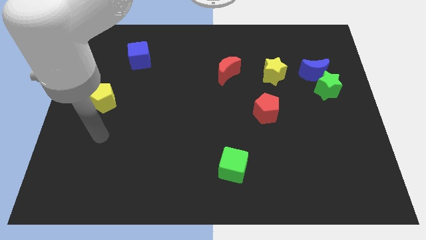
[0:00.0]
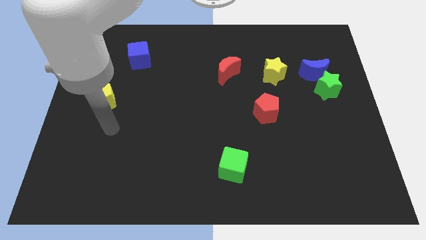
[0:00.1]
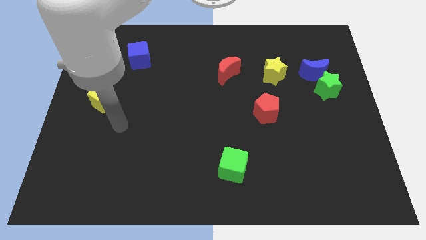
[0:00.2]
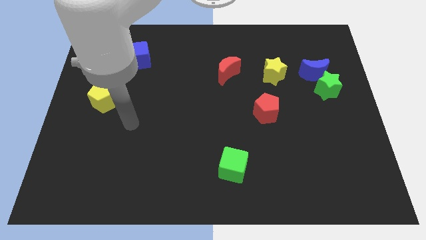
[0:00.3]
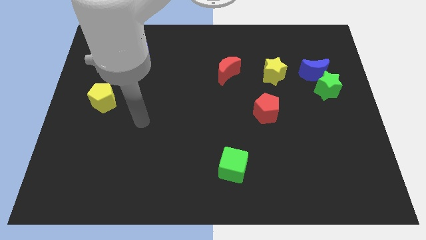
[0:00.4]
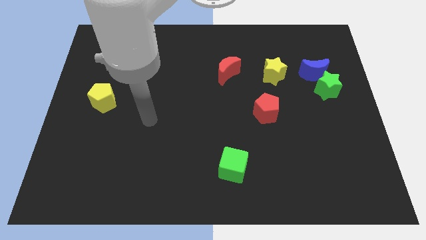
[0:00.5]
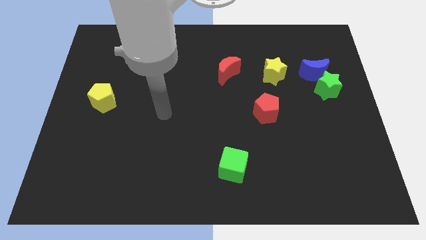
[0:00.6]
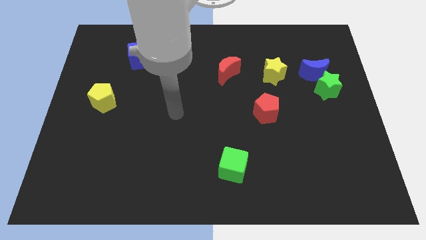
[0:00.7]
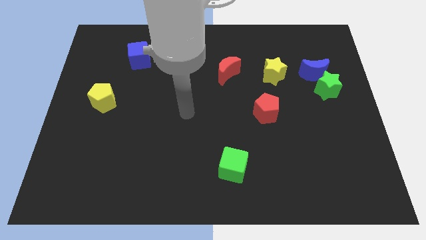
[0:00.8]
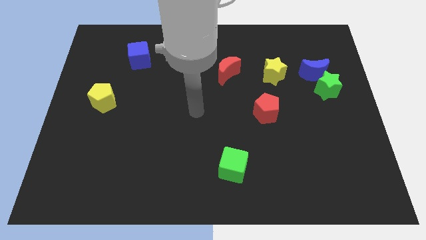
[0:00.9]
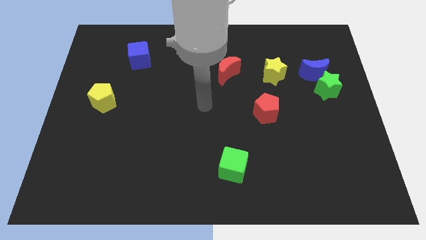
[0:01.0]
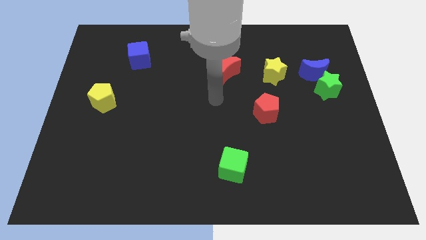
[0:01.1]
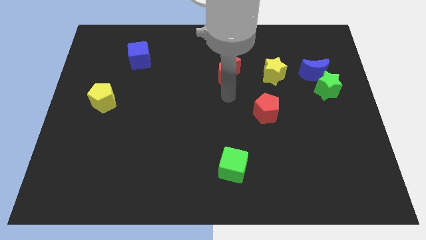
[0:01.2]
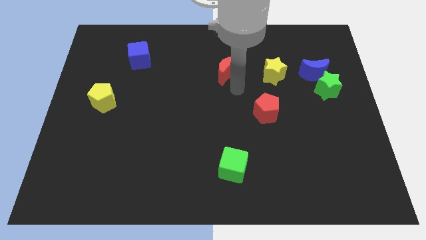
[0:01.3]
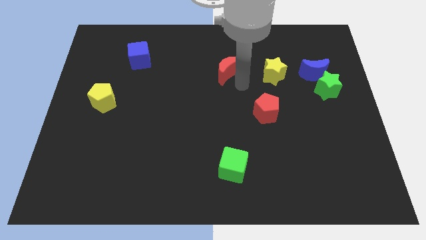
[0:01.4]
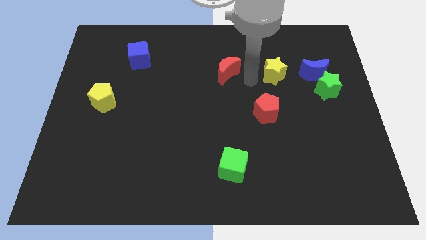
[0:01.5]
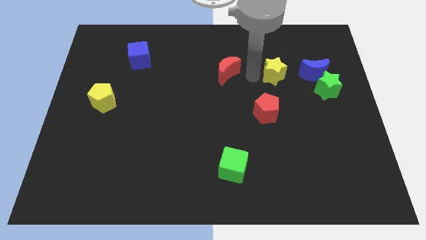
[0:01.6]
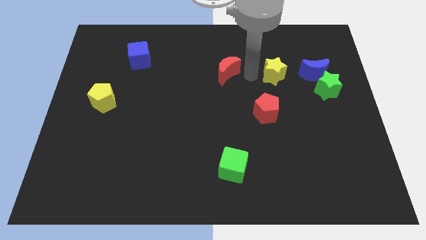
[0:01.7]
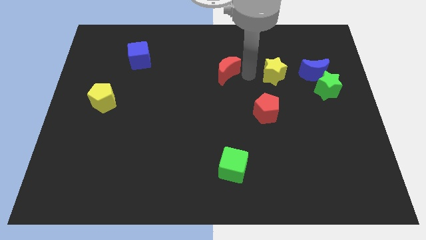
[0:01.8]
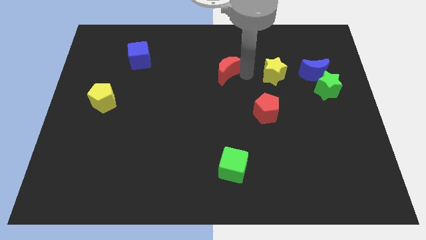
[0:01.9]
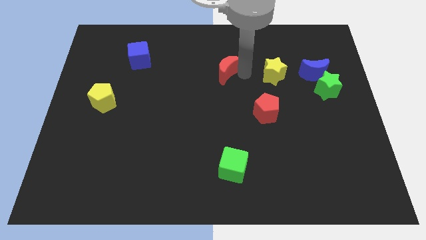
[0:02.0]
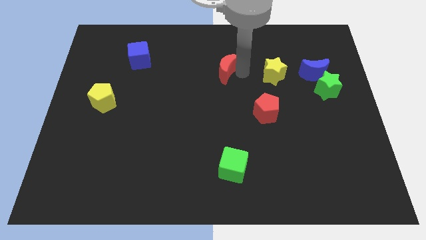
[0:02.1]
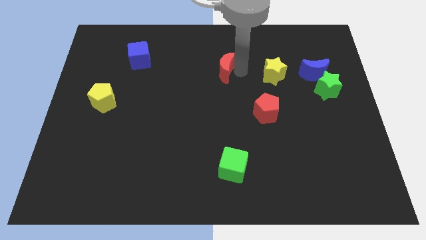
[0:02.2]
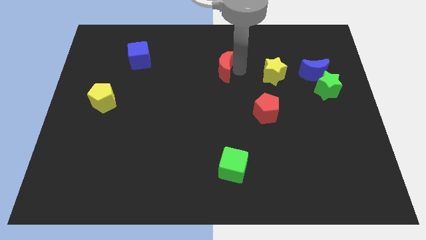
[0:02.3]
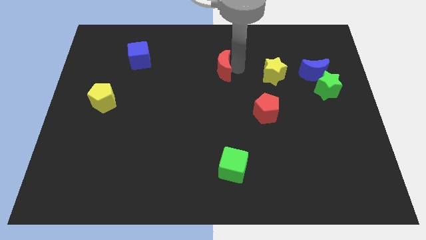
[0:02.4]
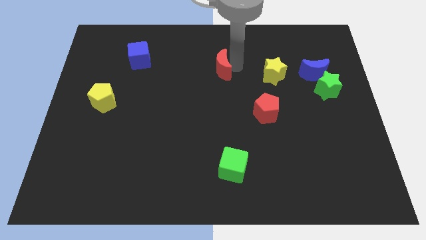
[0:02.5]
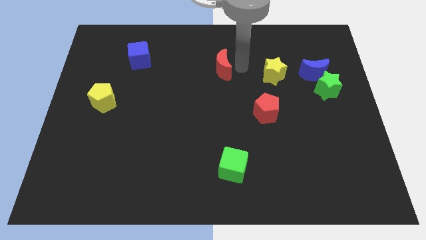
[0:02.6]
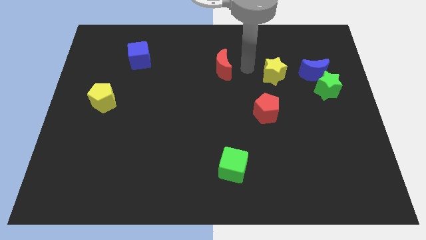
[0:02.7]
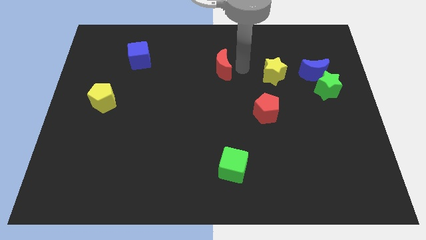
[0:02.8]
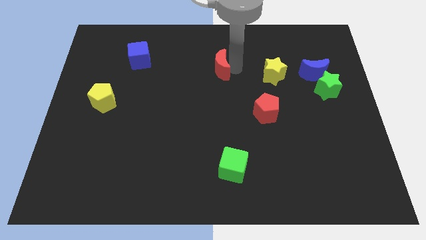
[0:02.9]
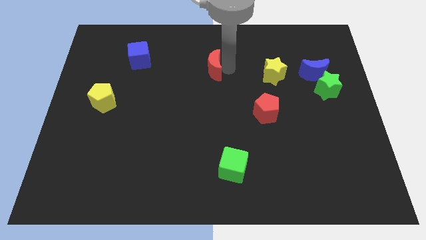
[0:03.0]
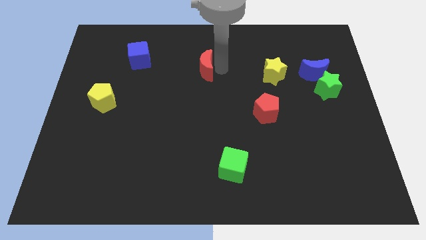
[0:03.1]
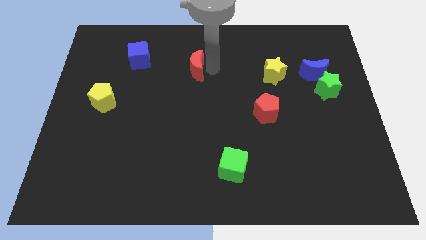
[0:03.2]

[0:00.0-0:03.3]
slide the red moon left a little bit

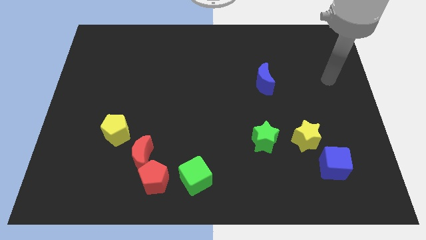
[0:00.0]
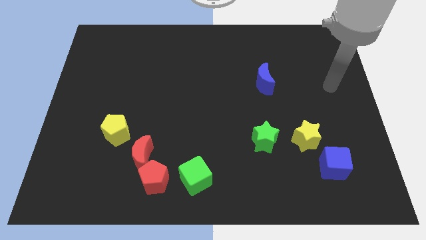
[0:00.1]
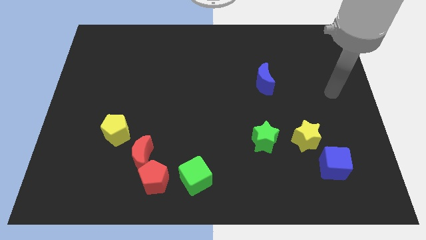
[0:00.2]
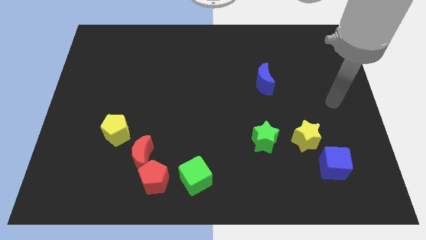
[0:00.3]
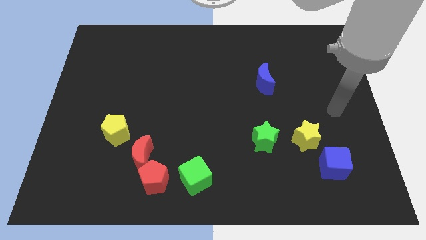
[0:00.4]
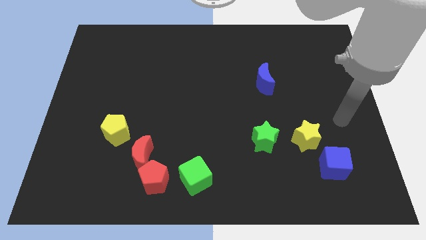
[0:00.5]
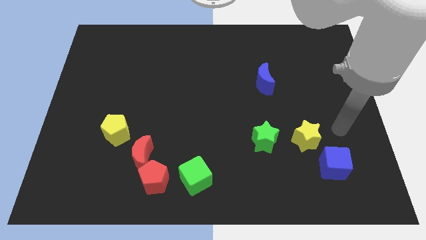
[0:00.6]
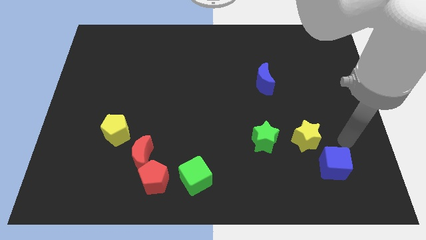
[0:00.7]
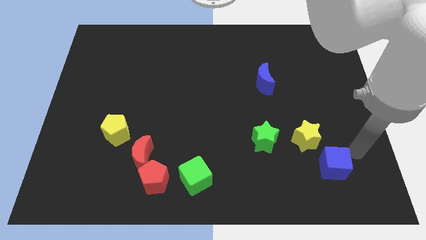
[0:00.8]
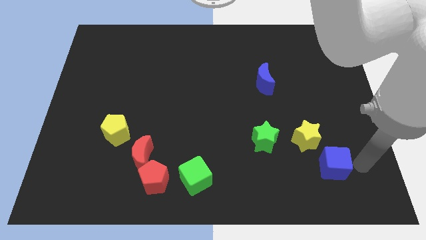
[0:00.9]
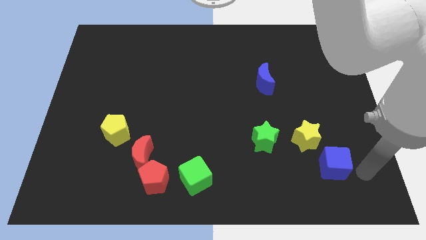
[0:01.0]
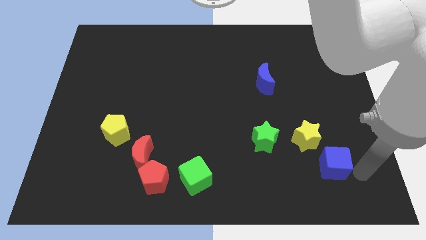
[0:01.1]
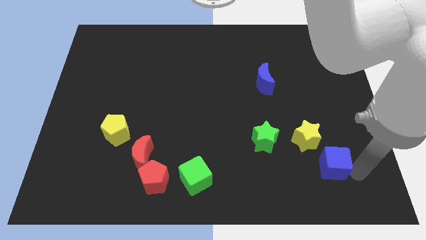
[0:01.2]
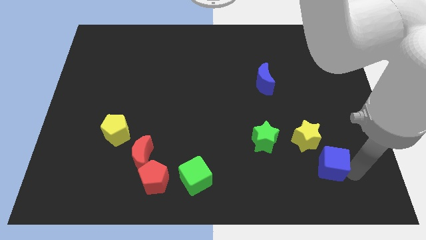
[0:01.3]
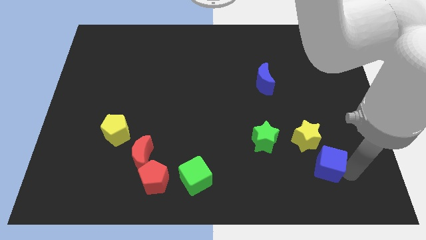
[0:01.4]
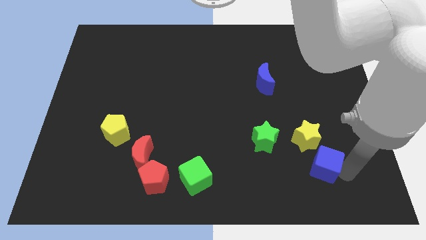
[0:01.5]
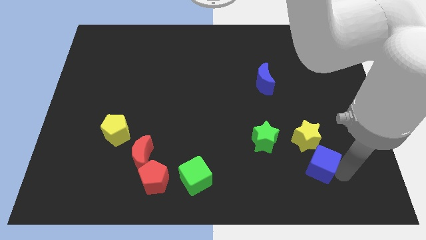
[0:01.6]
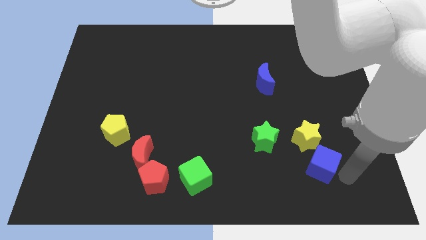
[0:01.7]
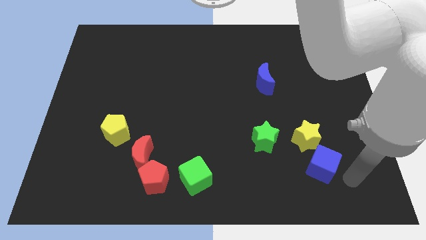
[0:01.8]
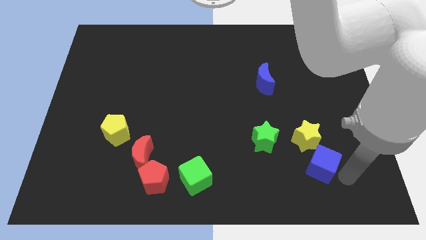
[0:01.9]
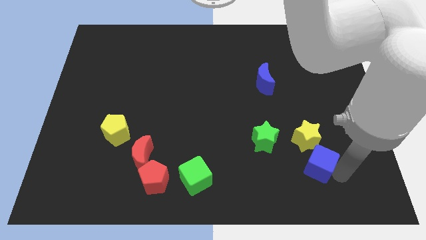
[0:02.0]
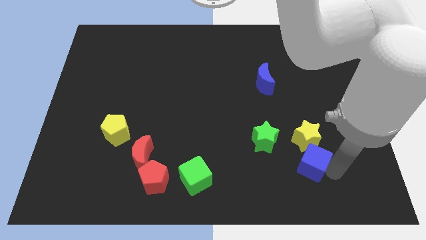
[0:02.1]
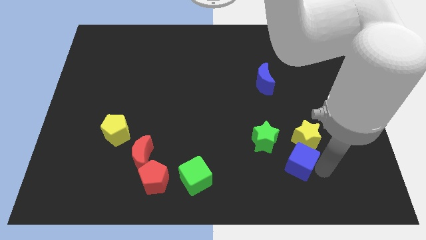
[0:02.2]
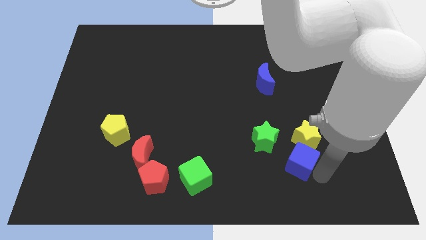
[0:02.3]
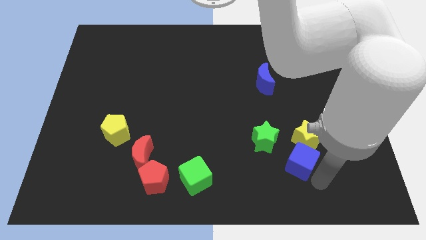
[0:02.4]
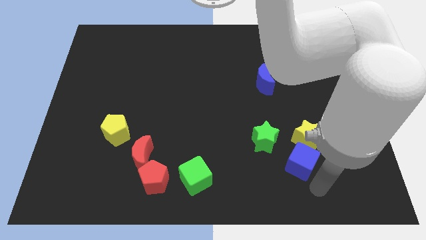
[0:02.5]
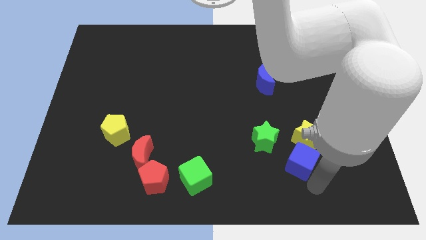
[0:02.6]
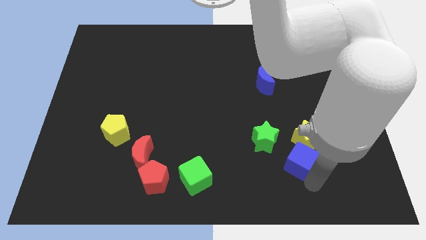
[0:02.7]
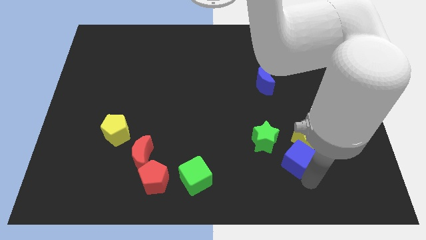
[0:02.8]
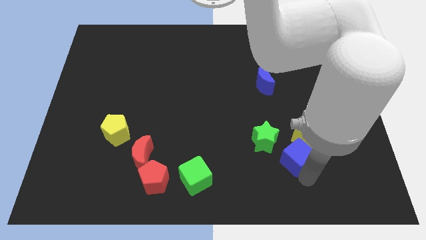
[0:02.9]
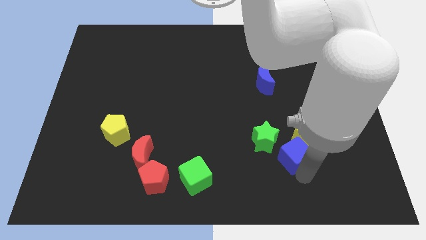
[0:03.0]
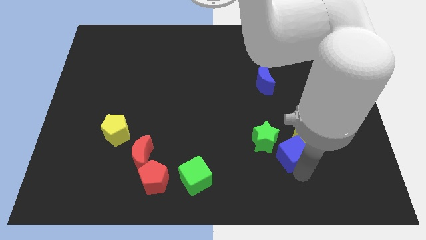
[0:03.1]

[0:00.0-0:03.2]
push the blue cube diagonally upwards and left a little bit

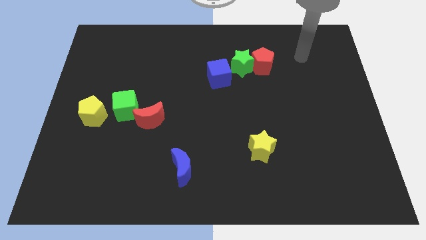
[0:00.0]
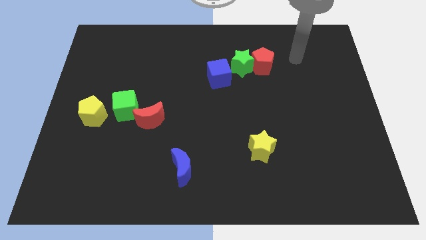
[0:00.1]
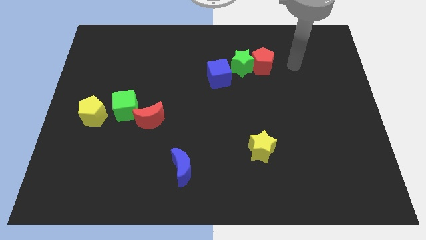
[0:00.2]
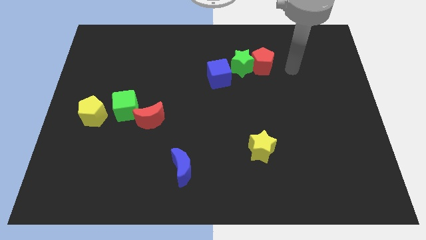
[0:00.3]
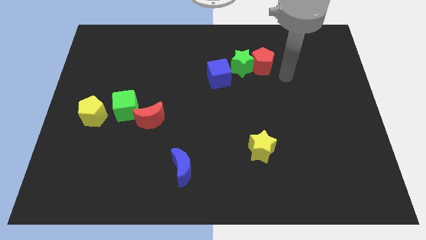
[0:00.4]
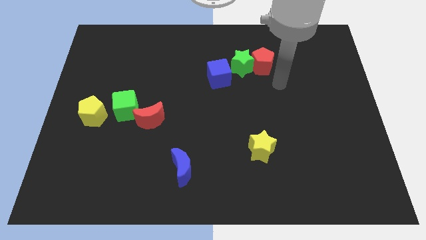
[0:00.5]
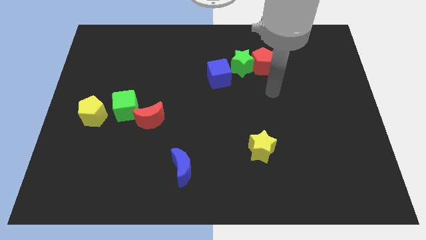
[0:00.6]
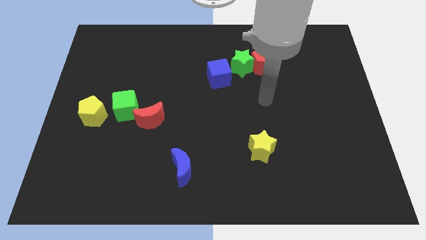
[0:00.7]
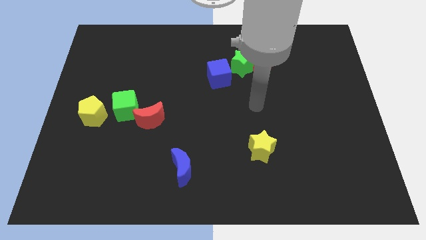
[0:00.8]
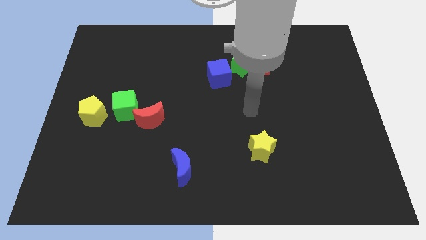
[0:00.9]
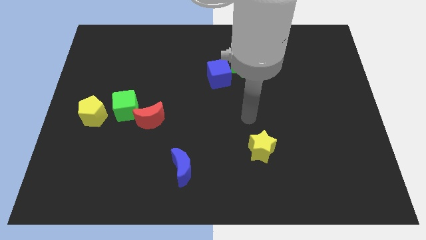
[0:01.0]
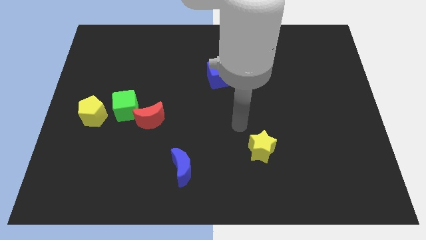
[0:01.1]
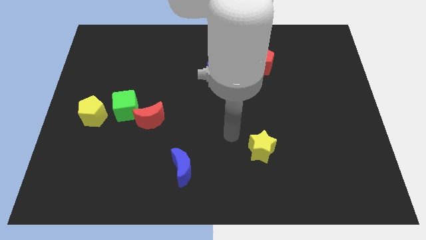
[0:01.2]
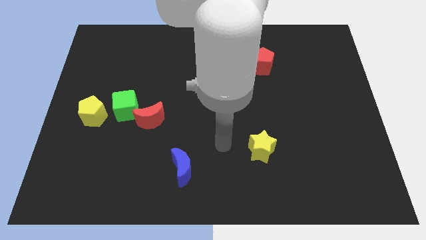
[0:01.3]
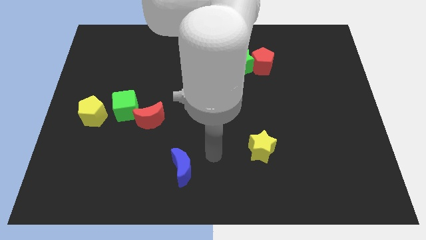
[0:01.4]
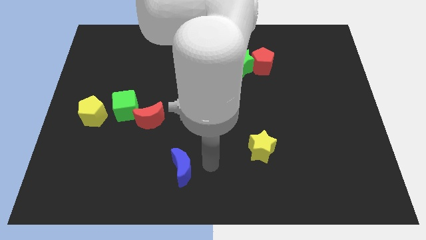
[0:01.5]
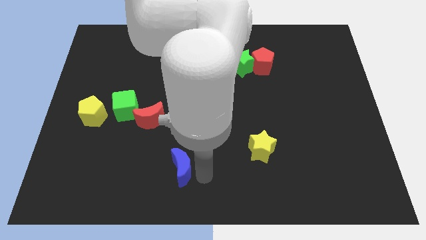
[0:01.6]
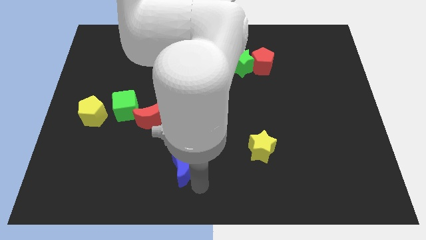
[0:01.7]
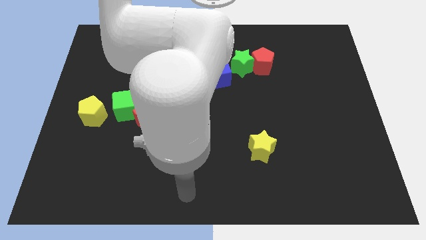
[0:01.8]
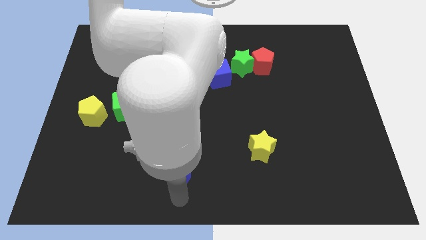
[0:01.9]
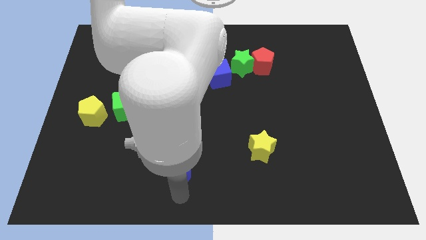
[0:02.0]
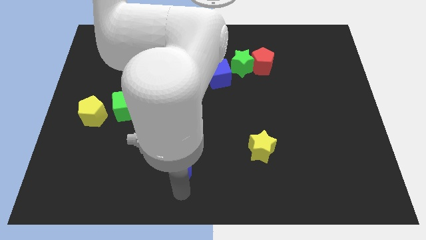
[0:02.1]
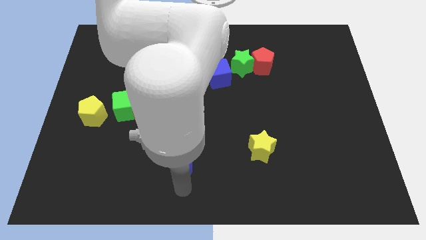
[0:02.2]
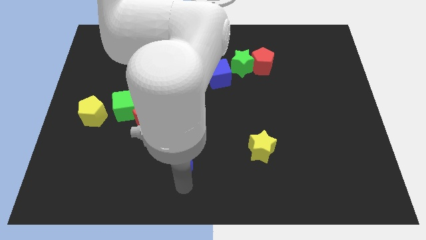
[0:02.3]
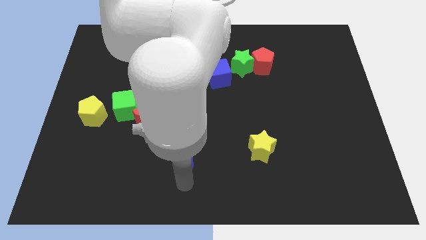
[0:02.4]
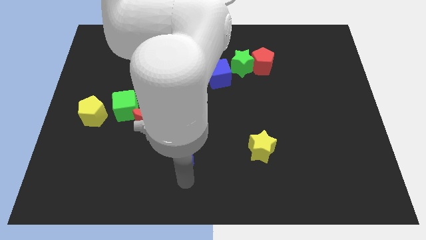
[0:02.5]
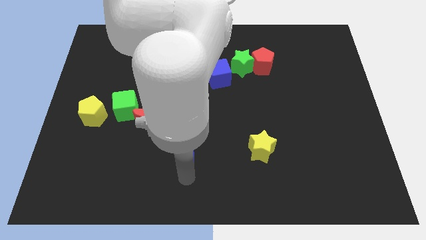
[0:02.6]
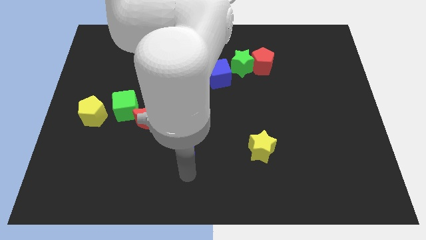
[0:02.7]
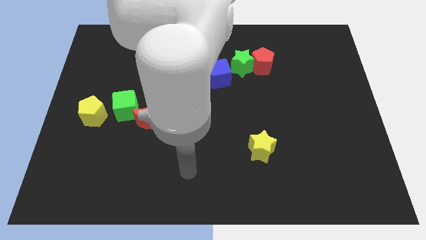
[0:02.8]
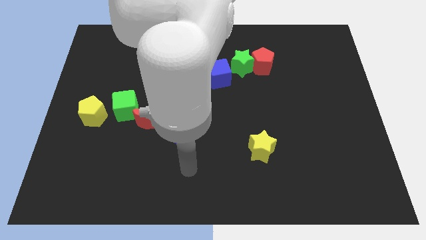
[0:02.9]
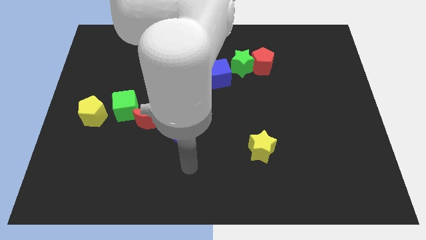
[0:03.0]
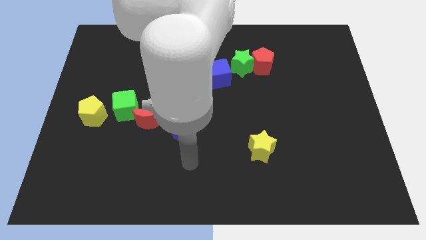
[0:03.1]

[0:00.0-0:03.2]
slightly move the blue moon up
